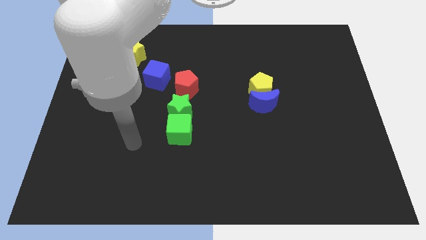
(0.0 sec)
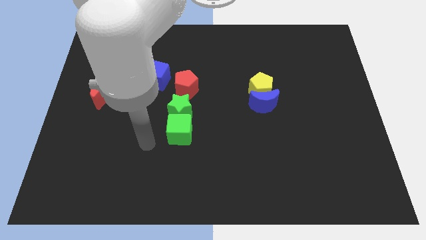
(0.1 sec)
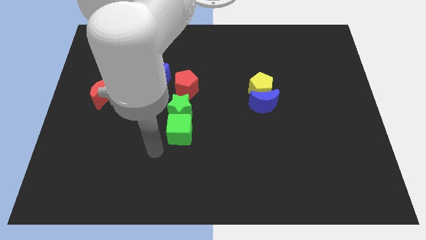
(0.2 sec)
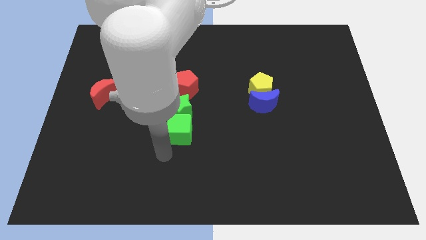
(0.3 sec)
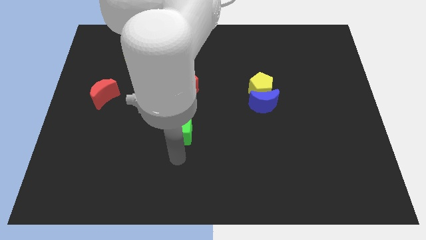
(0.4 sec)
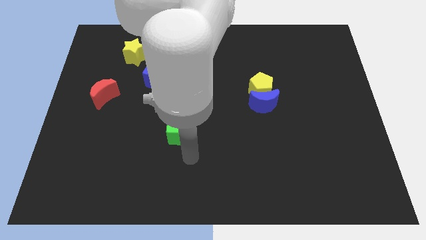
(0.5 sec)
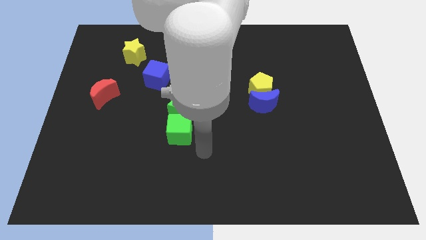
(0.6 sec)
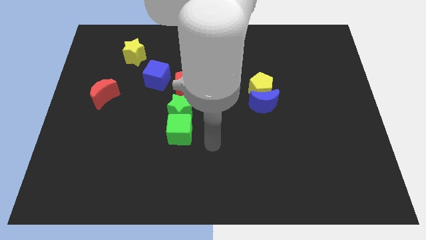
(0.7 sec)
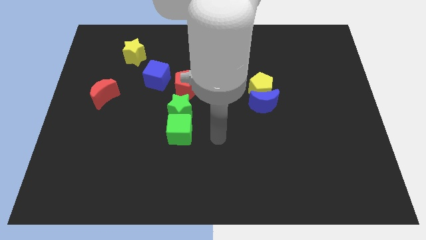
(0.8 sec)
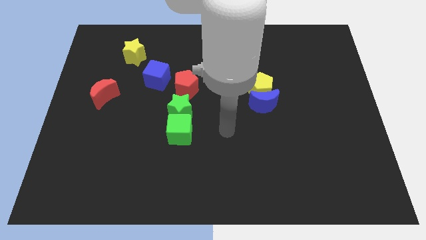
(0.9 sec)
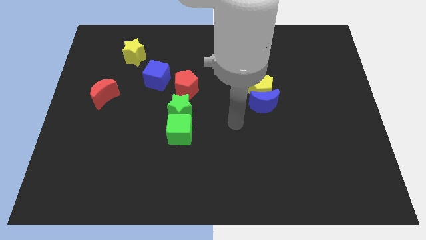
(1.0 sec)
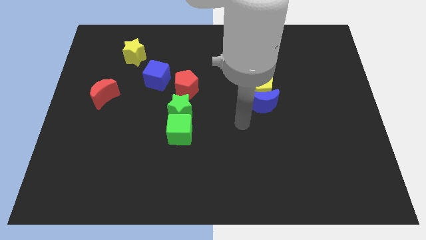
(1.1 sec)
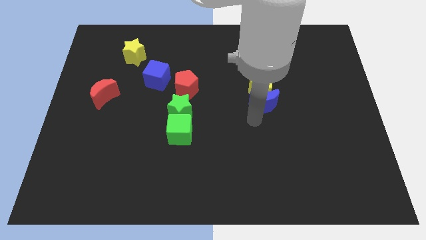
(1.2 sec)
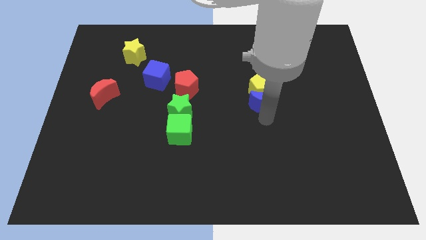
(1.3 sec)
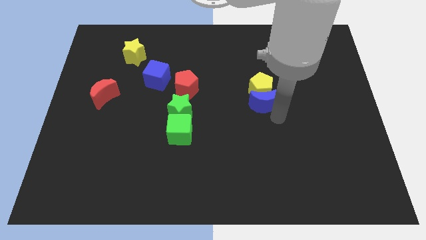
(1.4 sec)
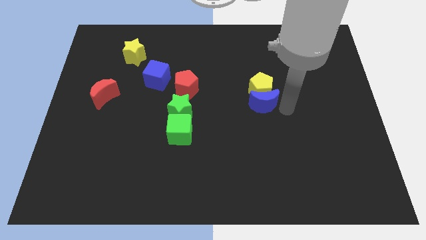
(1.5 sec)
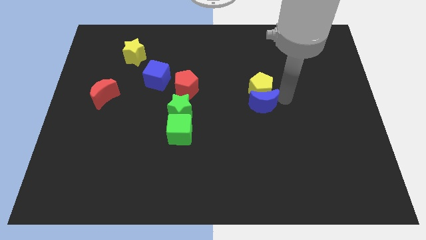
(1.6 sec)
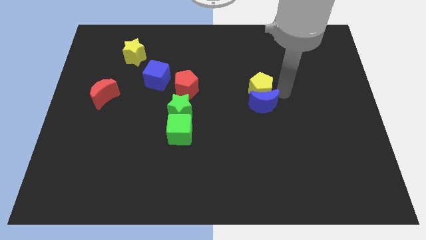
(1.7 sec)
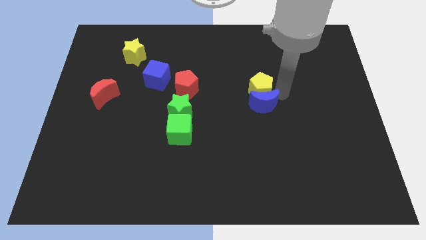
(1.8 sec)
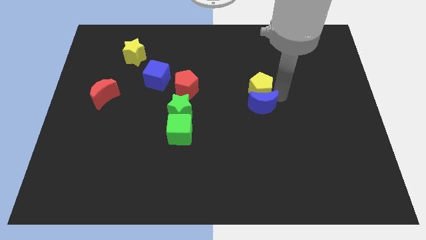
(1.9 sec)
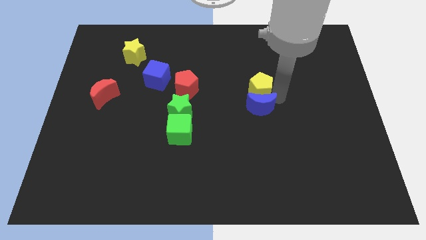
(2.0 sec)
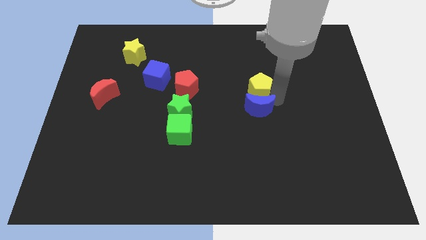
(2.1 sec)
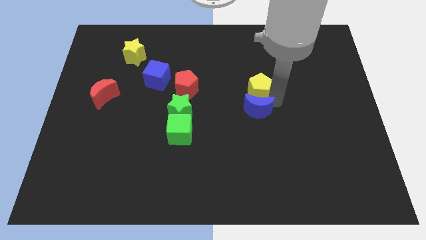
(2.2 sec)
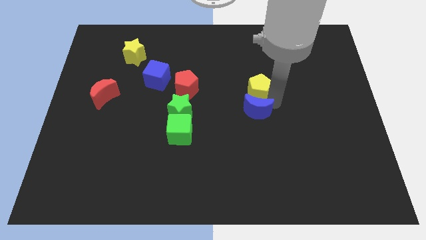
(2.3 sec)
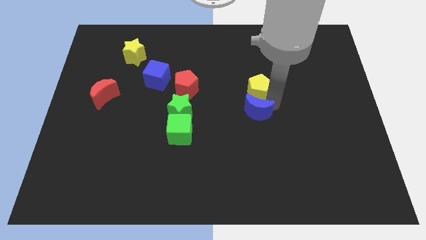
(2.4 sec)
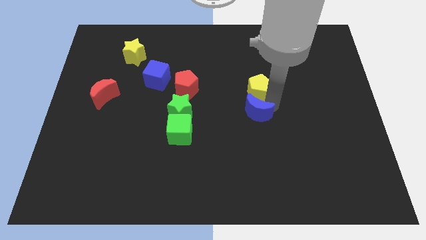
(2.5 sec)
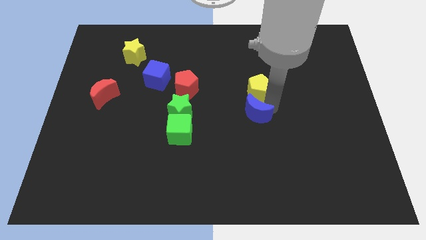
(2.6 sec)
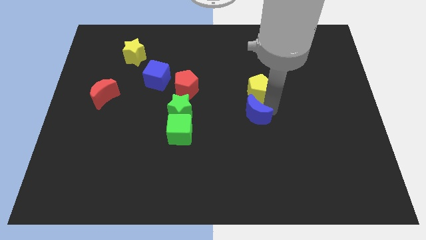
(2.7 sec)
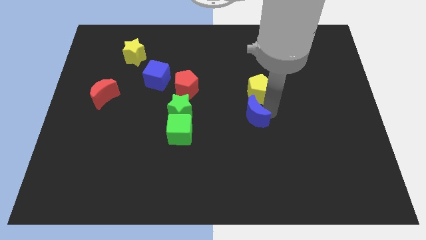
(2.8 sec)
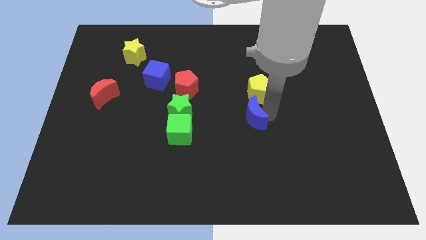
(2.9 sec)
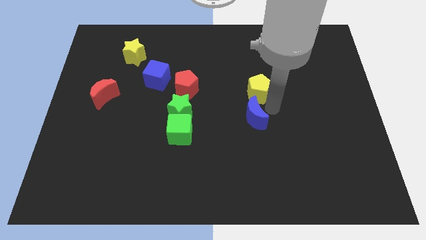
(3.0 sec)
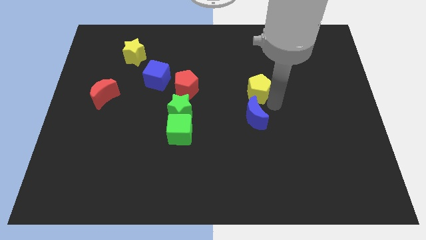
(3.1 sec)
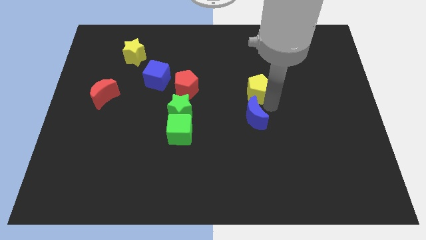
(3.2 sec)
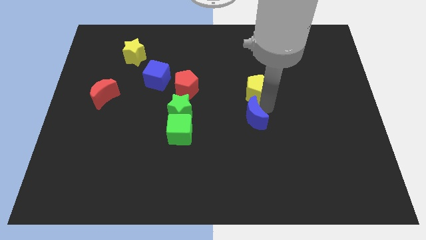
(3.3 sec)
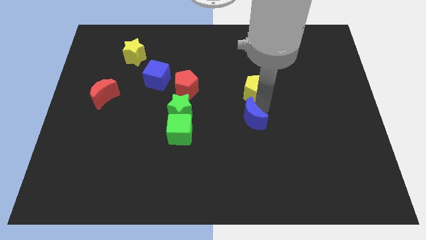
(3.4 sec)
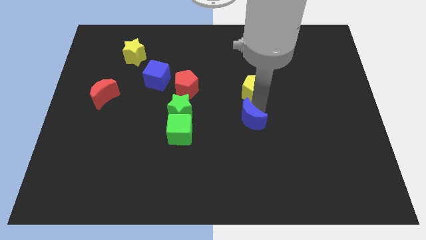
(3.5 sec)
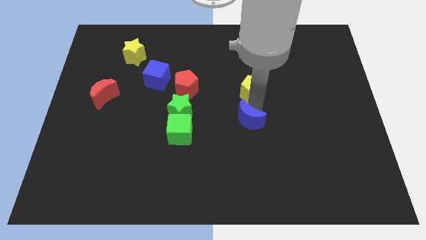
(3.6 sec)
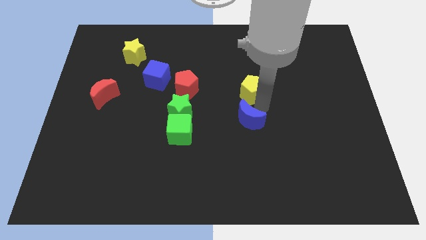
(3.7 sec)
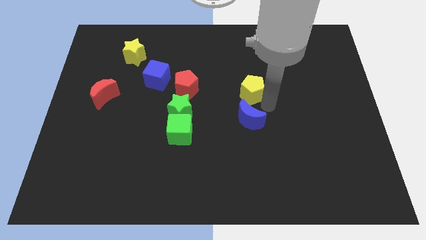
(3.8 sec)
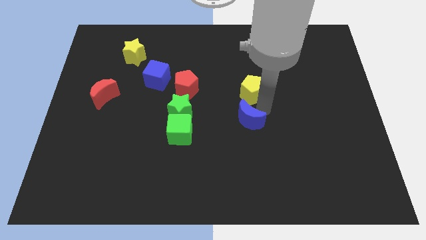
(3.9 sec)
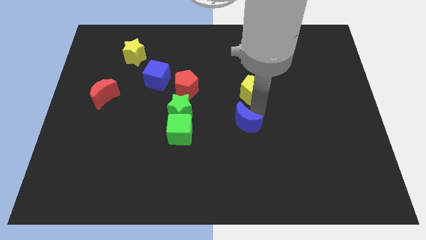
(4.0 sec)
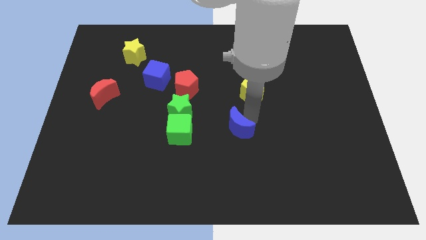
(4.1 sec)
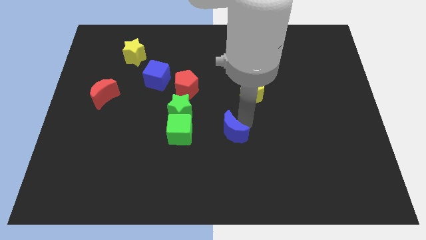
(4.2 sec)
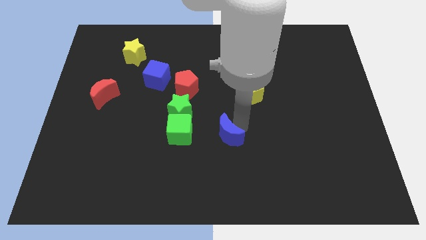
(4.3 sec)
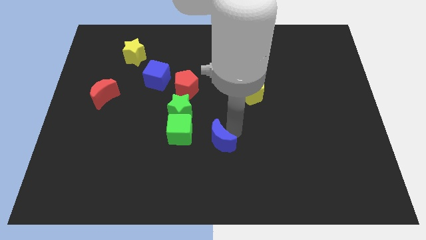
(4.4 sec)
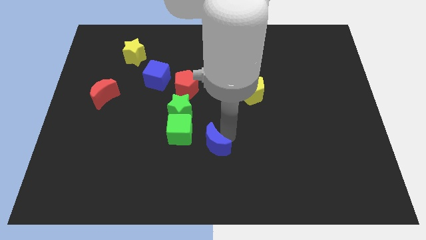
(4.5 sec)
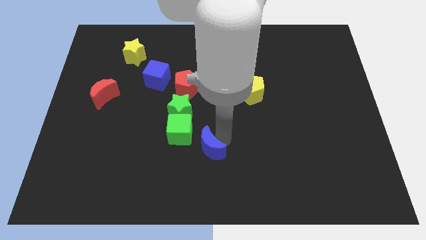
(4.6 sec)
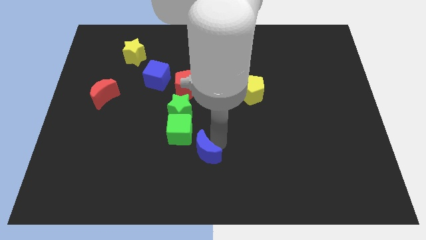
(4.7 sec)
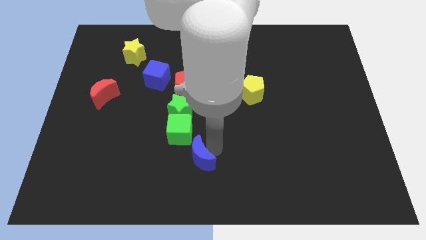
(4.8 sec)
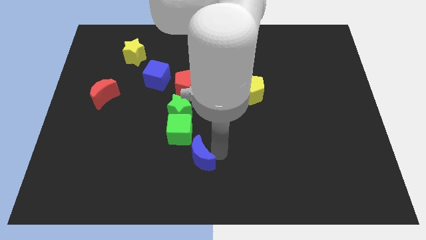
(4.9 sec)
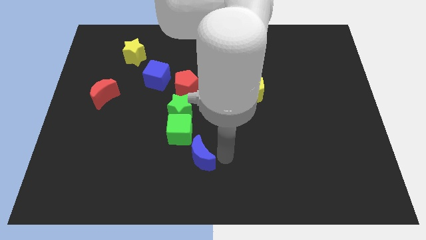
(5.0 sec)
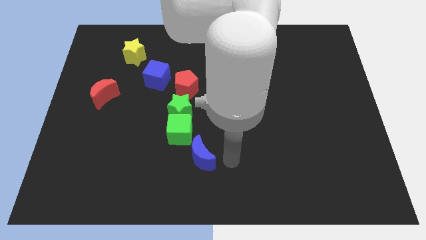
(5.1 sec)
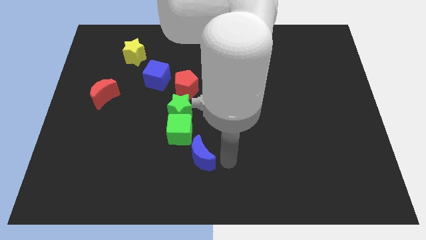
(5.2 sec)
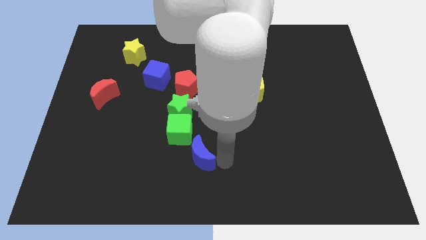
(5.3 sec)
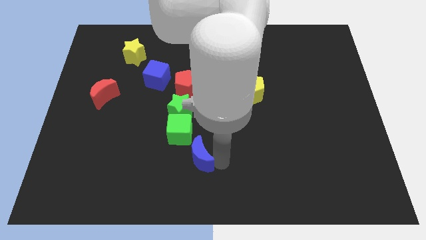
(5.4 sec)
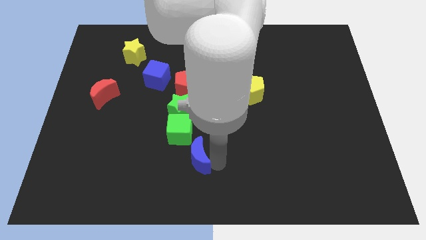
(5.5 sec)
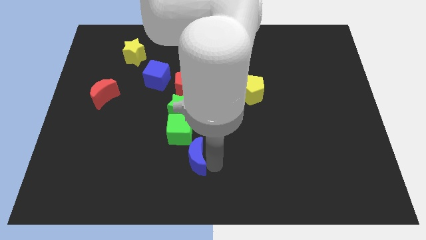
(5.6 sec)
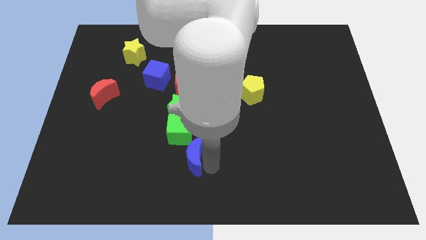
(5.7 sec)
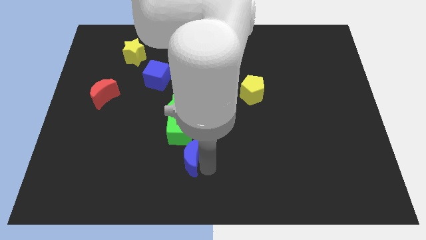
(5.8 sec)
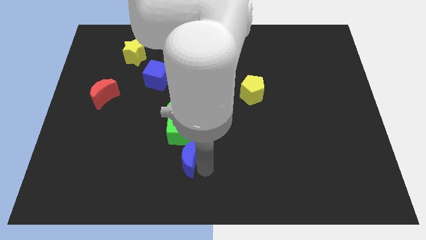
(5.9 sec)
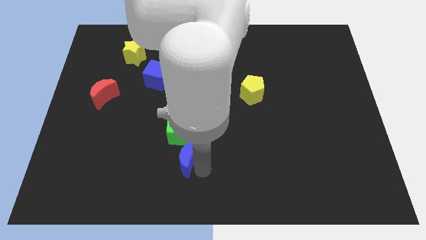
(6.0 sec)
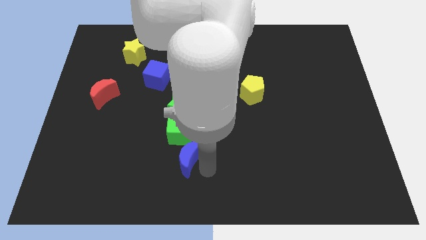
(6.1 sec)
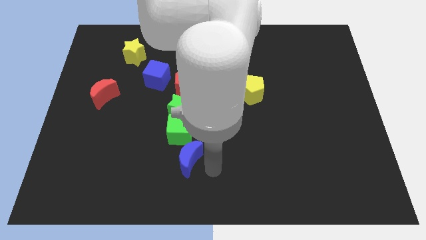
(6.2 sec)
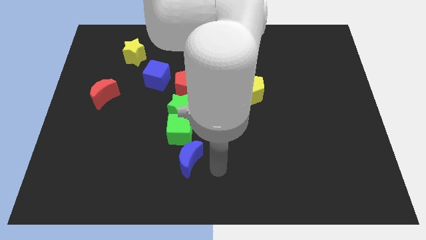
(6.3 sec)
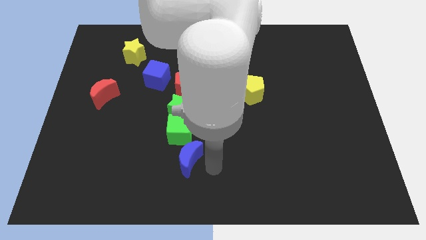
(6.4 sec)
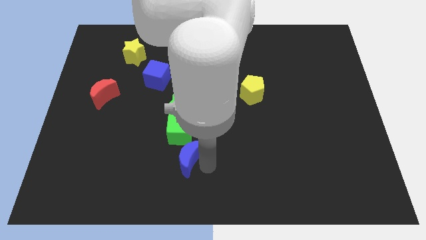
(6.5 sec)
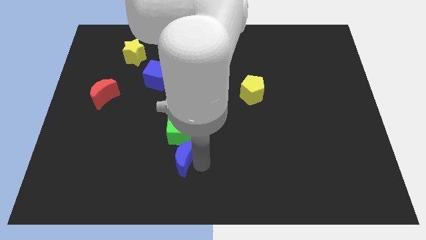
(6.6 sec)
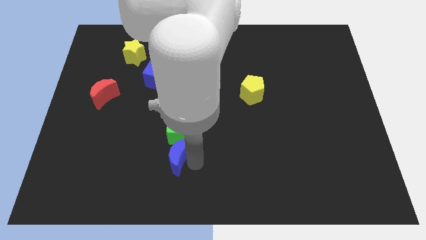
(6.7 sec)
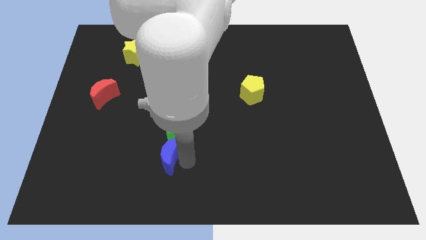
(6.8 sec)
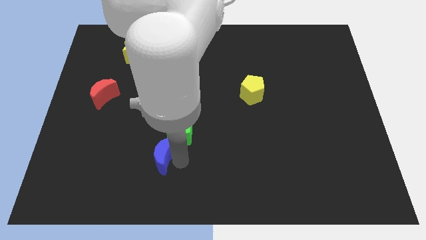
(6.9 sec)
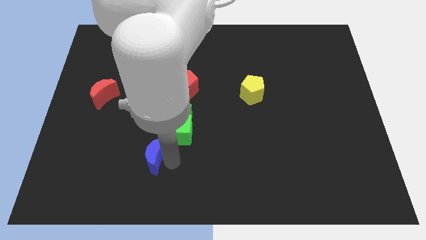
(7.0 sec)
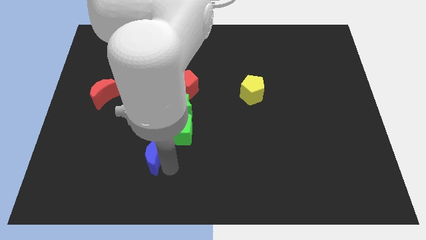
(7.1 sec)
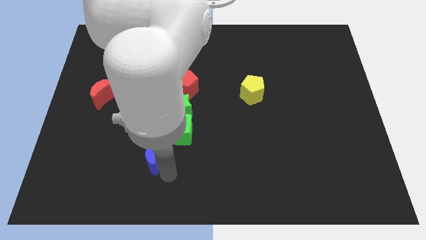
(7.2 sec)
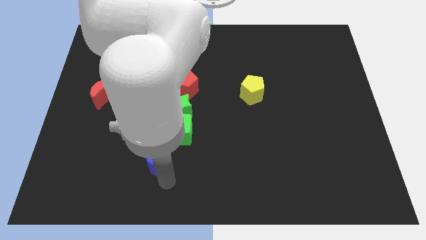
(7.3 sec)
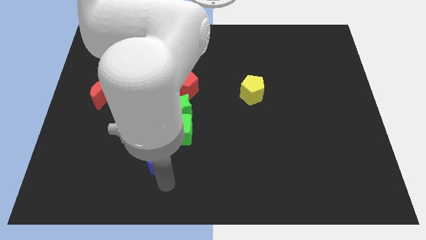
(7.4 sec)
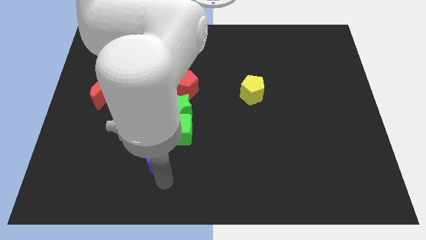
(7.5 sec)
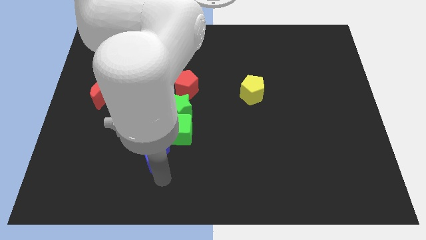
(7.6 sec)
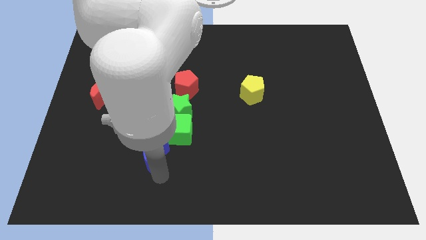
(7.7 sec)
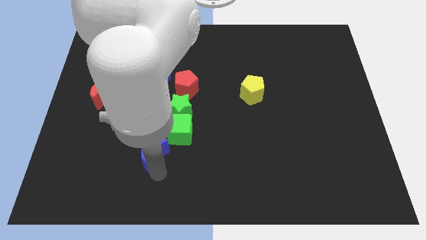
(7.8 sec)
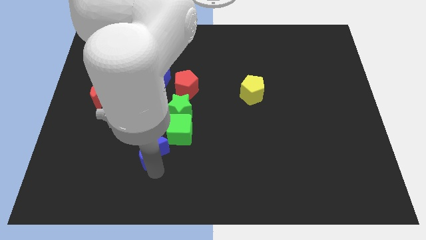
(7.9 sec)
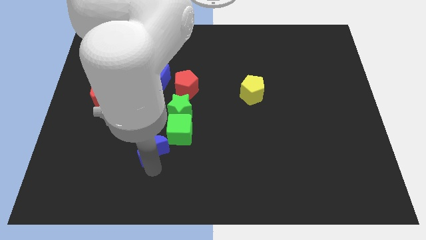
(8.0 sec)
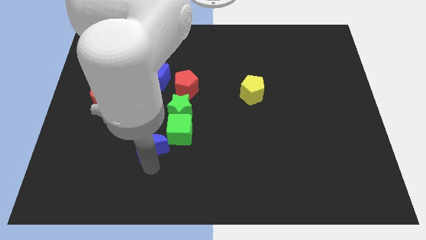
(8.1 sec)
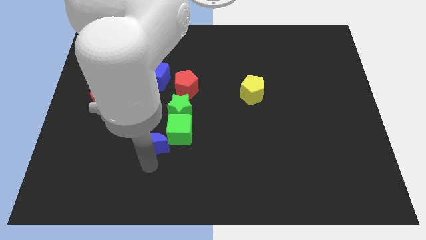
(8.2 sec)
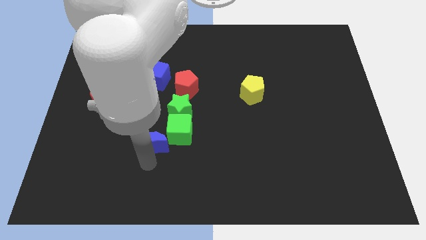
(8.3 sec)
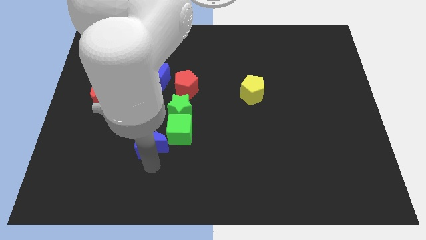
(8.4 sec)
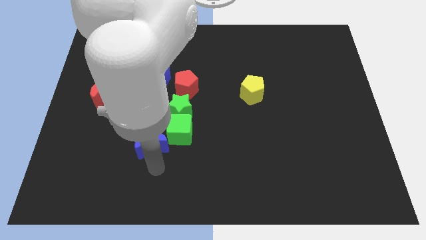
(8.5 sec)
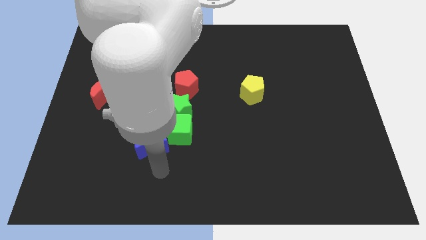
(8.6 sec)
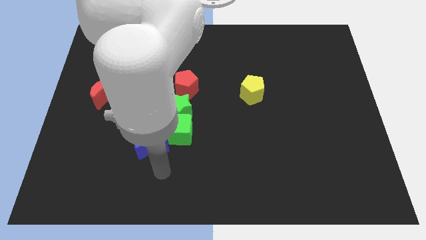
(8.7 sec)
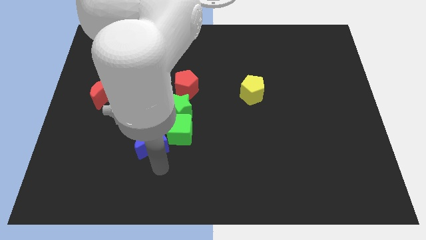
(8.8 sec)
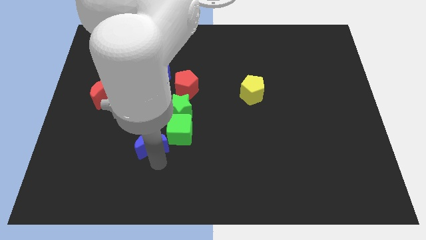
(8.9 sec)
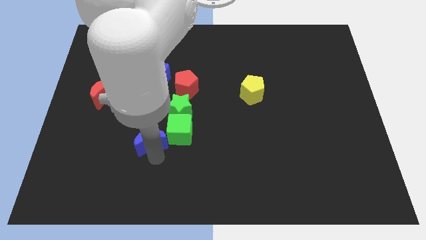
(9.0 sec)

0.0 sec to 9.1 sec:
push the blue moon left
